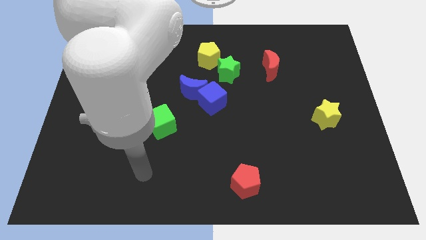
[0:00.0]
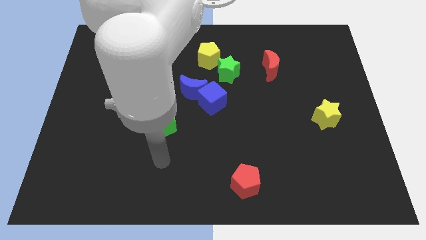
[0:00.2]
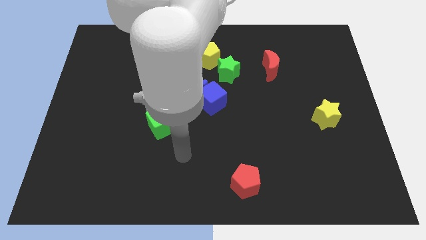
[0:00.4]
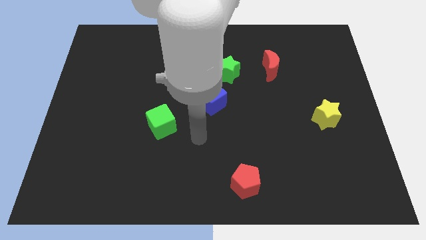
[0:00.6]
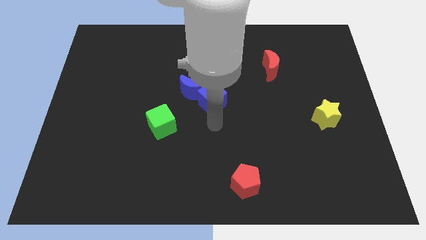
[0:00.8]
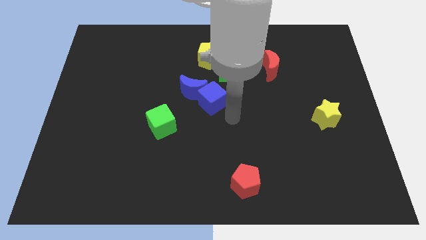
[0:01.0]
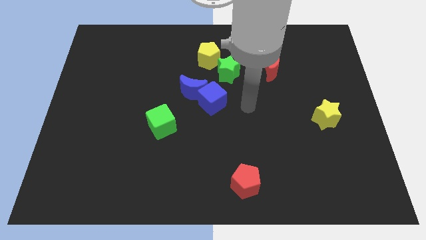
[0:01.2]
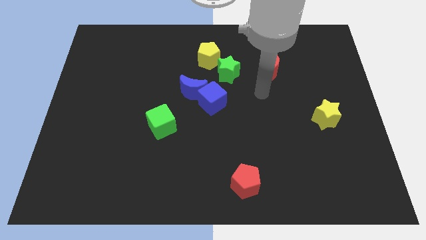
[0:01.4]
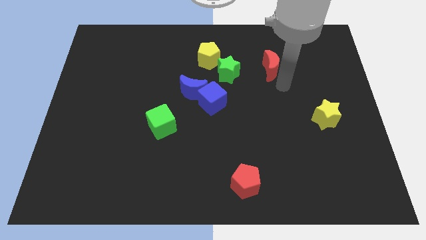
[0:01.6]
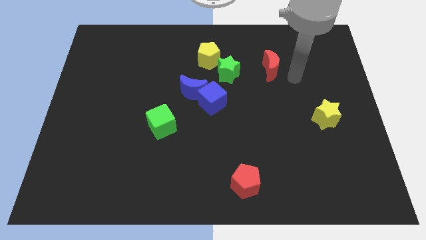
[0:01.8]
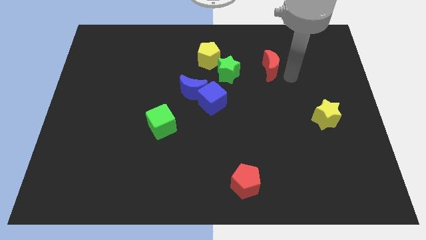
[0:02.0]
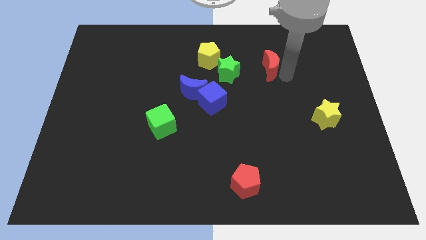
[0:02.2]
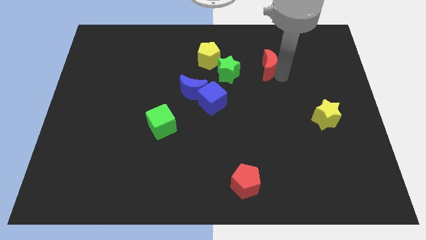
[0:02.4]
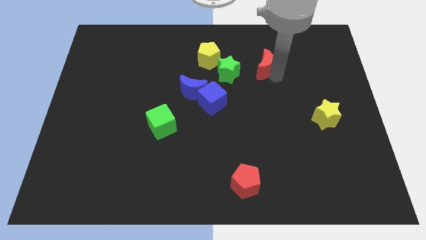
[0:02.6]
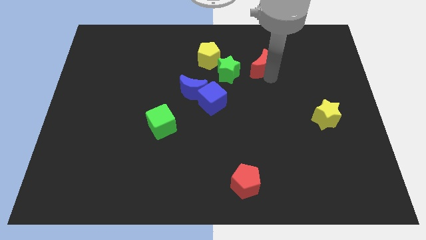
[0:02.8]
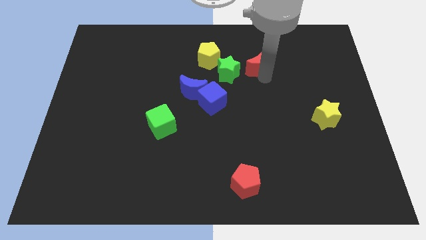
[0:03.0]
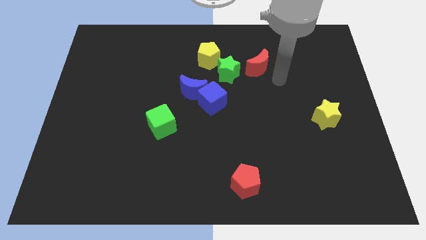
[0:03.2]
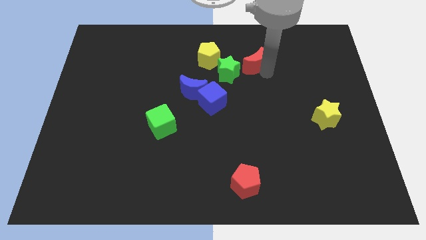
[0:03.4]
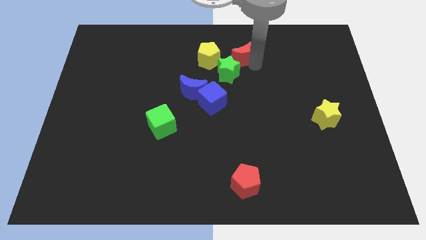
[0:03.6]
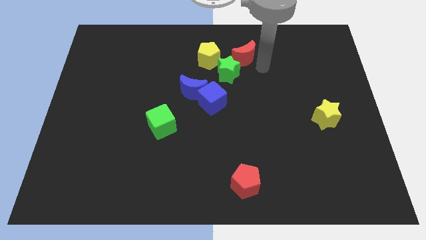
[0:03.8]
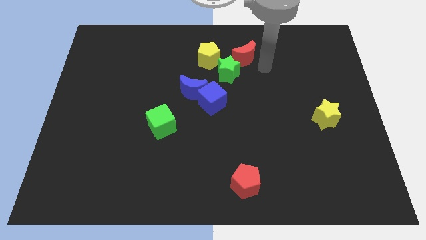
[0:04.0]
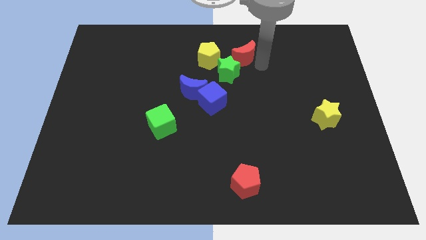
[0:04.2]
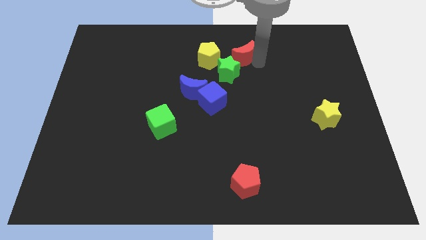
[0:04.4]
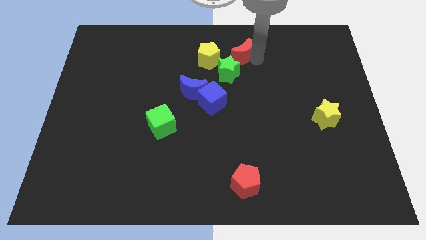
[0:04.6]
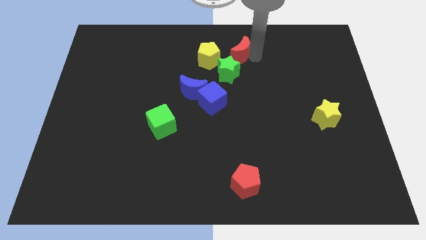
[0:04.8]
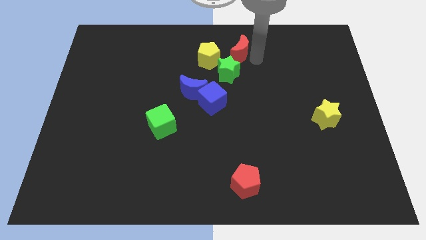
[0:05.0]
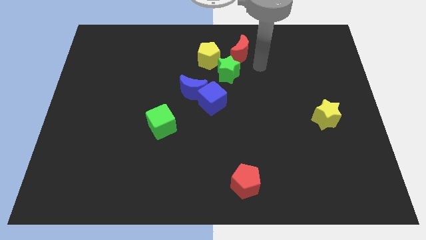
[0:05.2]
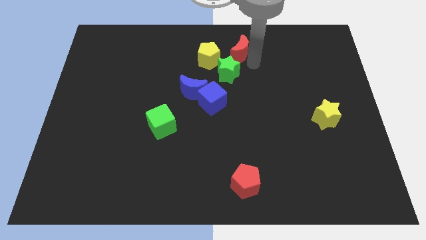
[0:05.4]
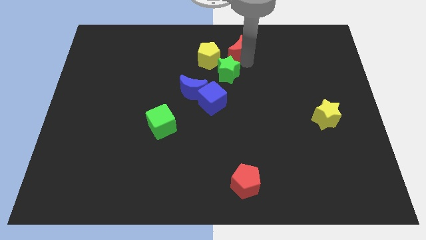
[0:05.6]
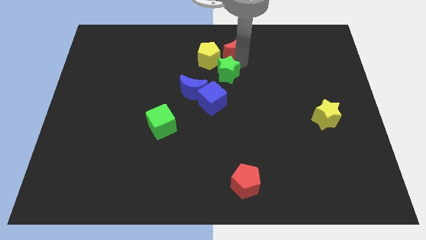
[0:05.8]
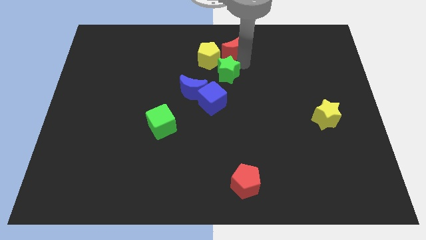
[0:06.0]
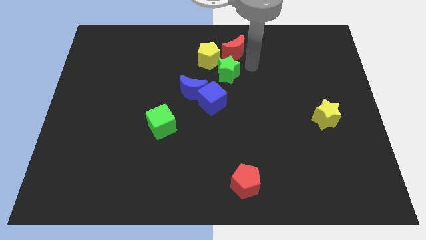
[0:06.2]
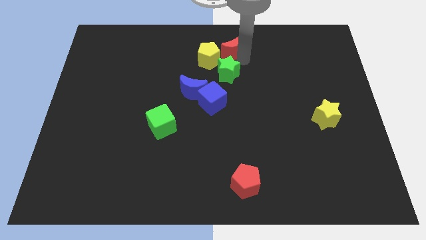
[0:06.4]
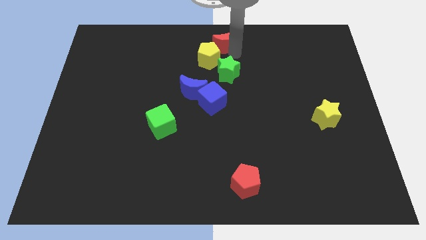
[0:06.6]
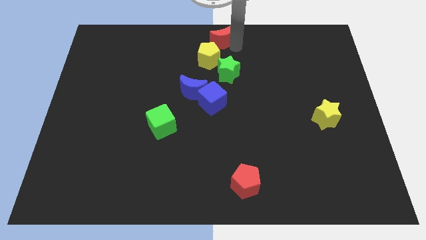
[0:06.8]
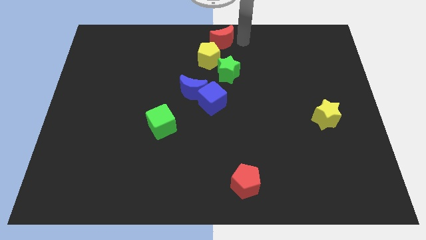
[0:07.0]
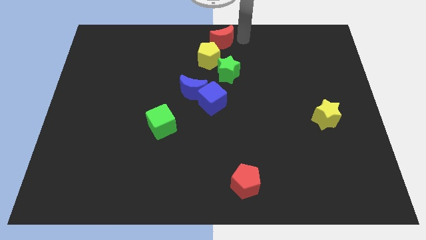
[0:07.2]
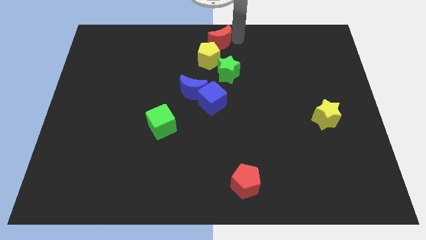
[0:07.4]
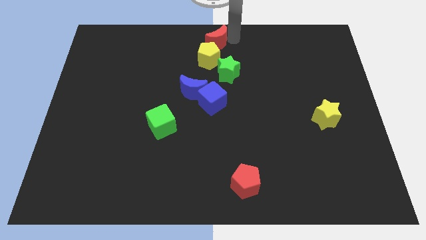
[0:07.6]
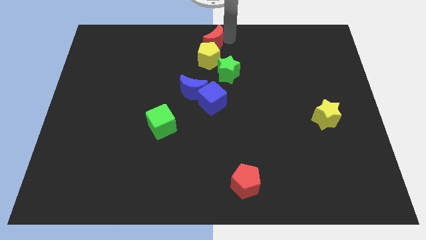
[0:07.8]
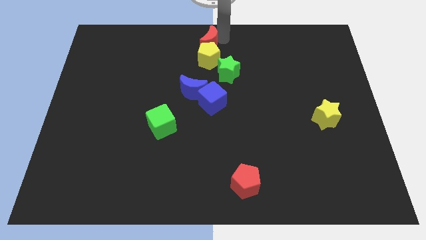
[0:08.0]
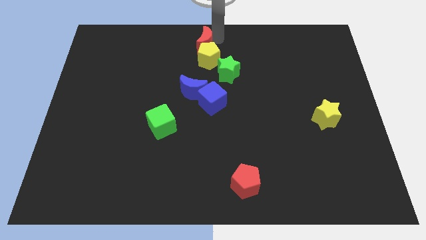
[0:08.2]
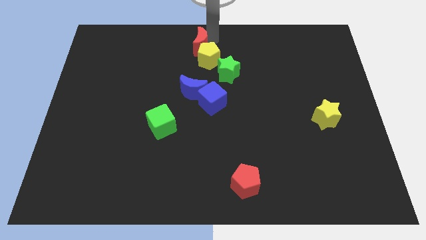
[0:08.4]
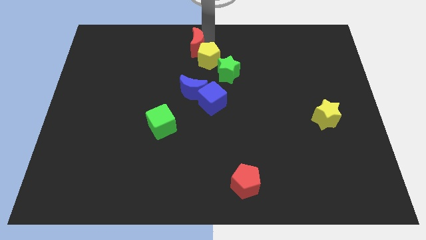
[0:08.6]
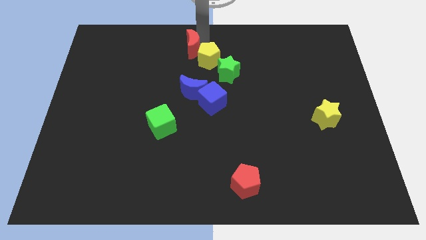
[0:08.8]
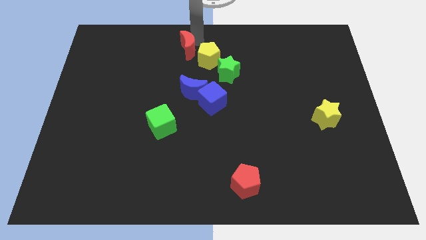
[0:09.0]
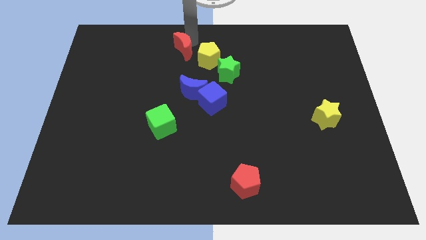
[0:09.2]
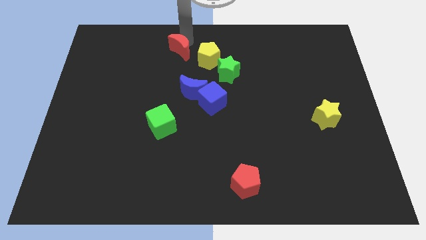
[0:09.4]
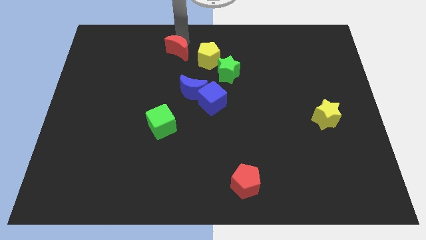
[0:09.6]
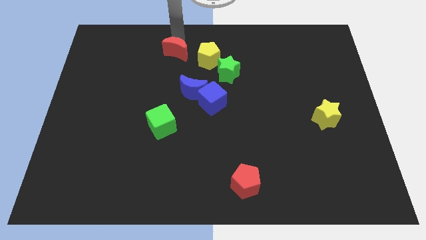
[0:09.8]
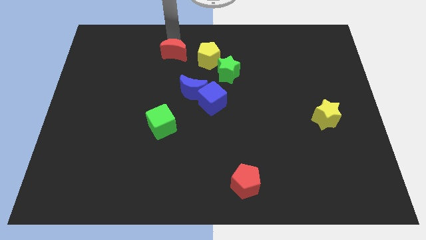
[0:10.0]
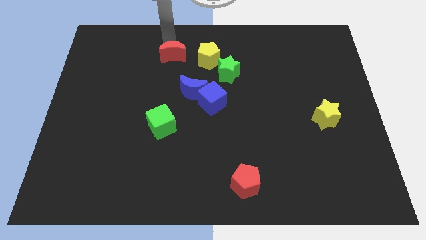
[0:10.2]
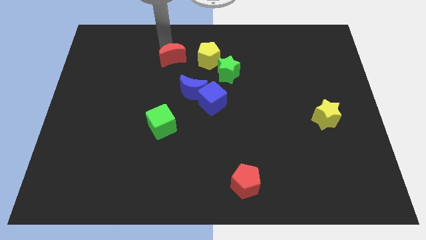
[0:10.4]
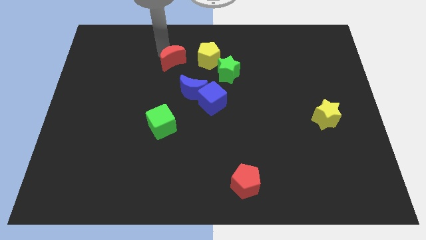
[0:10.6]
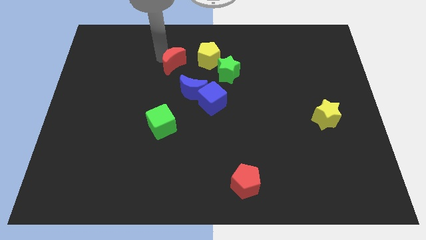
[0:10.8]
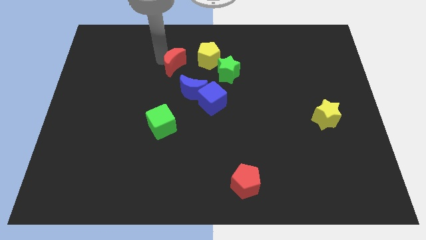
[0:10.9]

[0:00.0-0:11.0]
slide the red moon diagonally down and to the left of the yellow pentagon

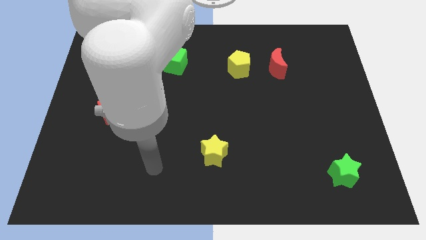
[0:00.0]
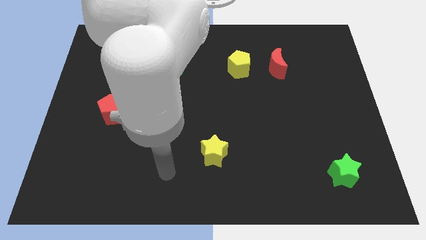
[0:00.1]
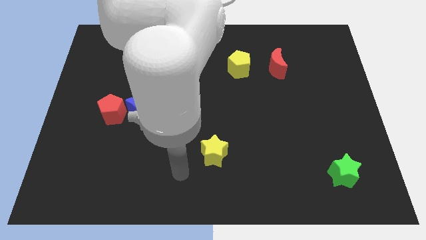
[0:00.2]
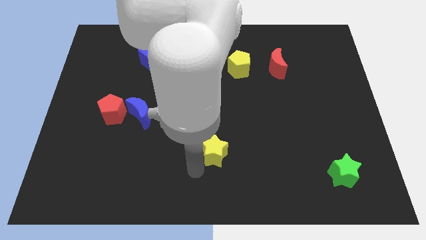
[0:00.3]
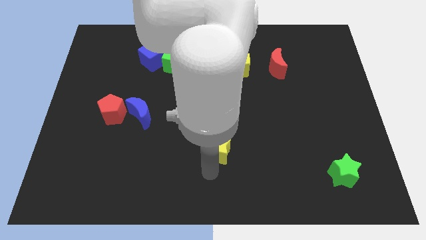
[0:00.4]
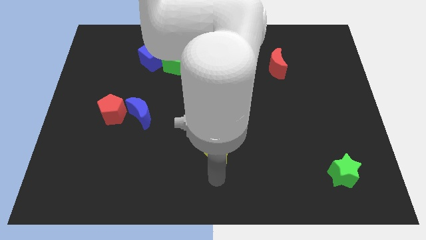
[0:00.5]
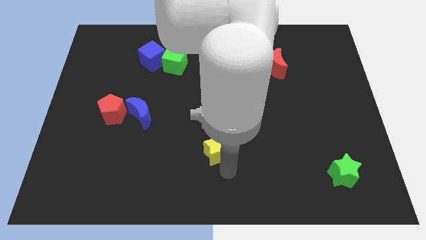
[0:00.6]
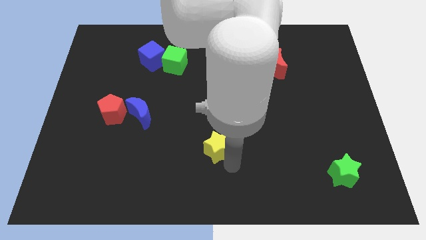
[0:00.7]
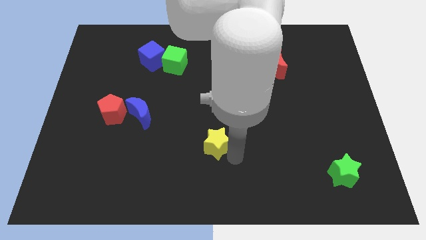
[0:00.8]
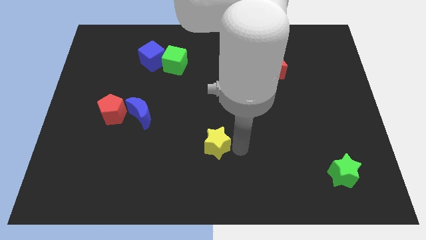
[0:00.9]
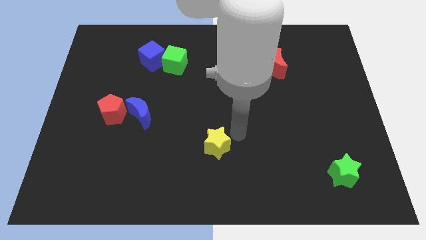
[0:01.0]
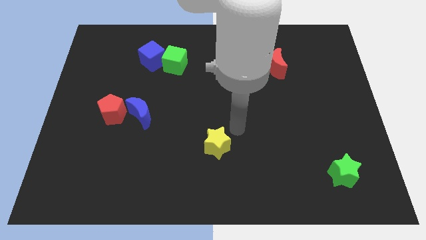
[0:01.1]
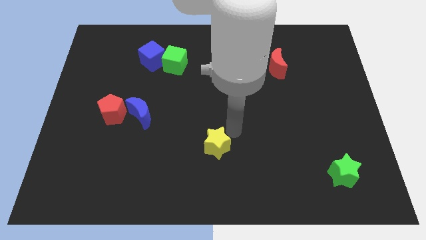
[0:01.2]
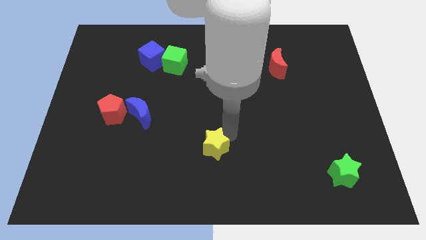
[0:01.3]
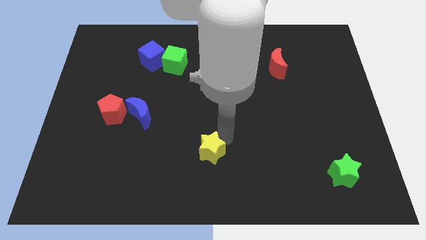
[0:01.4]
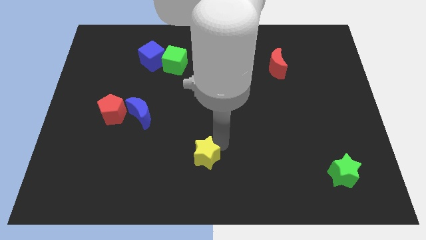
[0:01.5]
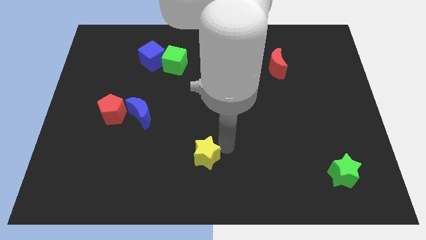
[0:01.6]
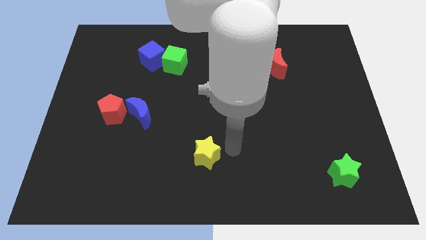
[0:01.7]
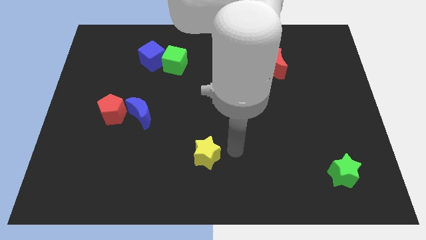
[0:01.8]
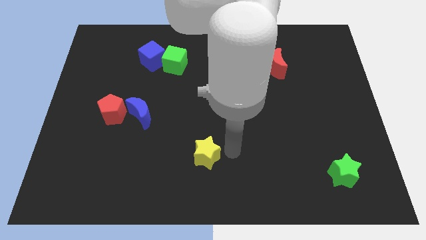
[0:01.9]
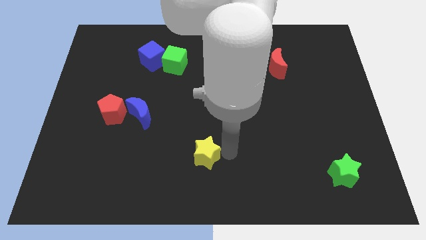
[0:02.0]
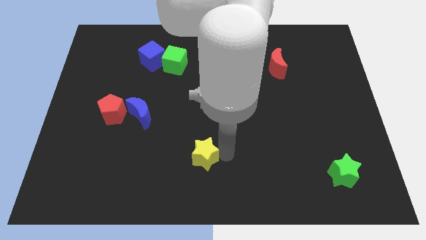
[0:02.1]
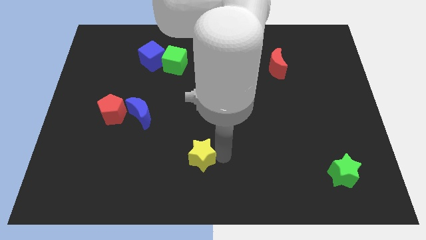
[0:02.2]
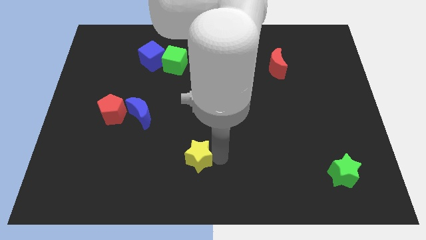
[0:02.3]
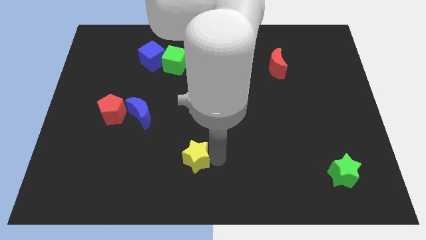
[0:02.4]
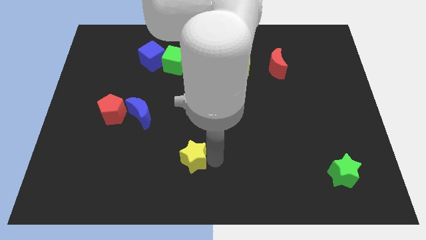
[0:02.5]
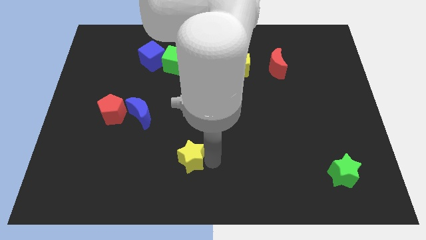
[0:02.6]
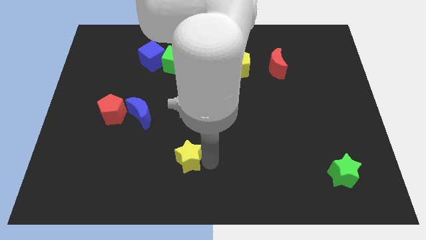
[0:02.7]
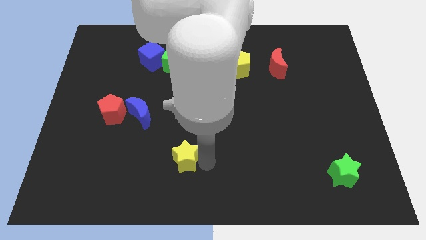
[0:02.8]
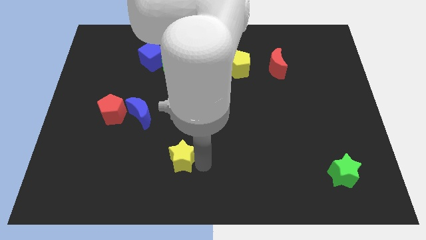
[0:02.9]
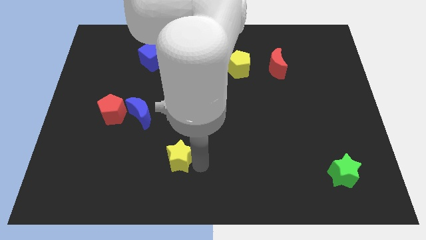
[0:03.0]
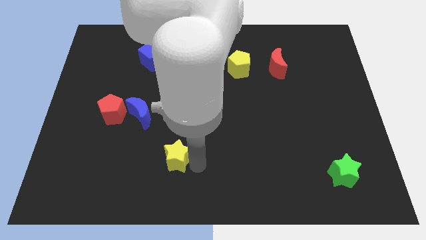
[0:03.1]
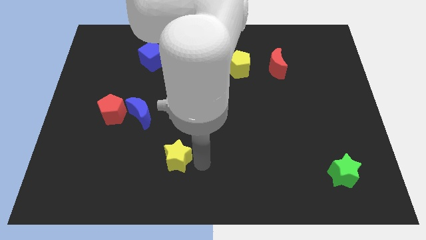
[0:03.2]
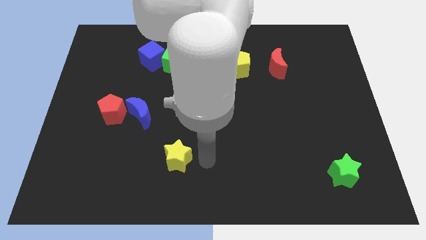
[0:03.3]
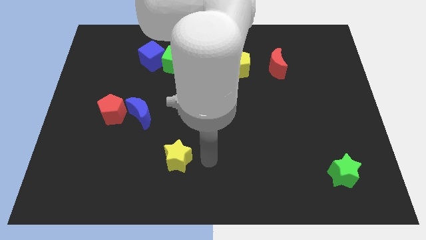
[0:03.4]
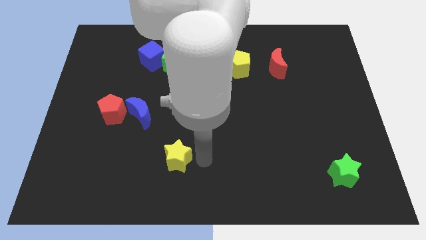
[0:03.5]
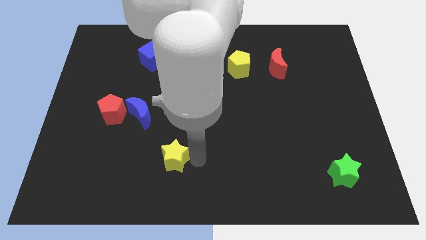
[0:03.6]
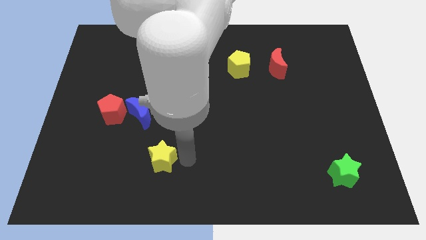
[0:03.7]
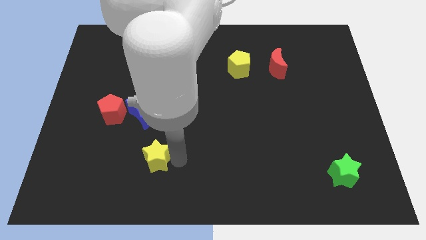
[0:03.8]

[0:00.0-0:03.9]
put the yellow star below the blue moon
